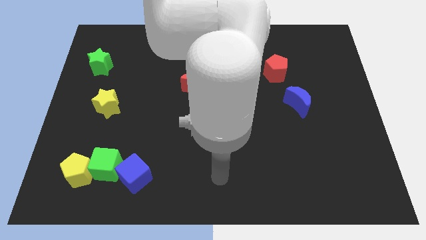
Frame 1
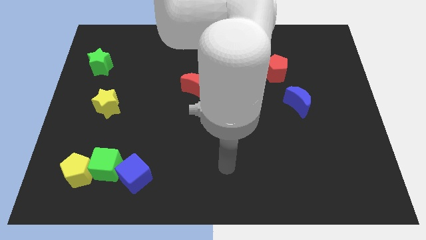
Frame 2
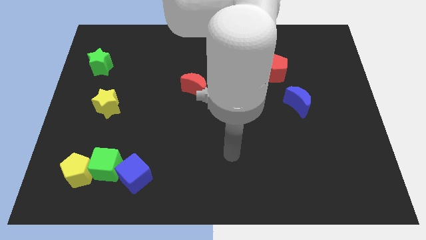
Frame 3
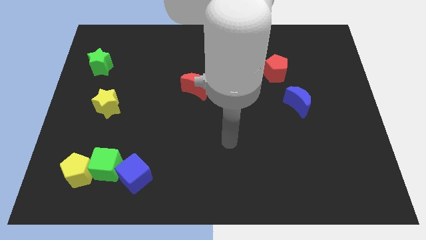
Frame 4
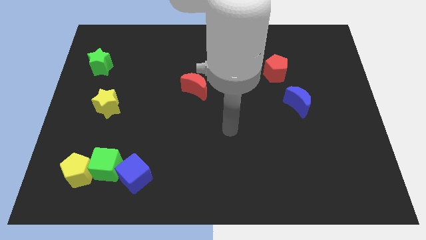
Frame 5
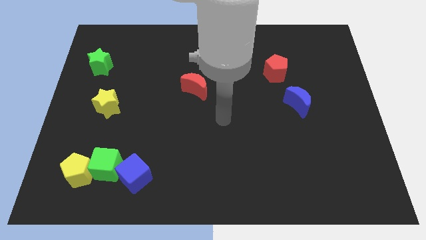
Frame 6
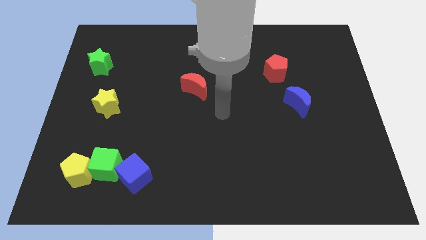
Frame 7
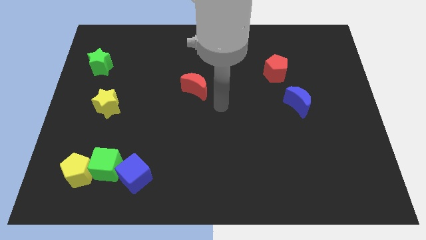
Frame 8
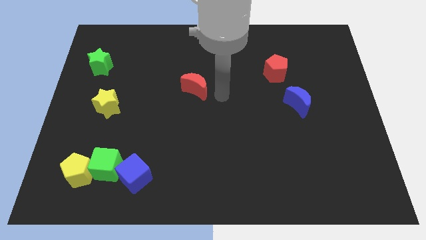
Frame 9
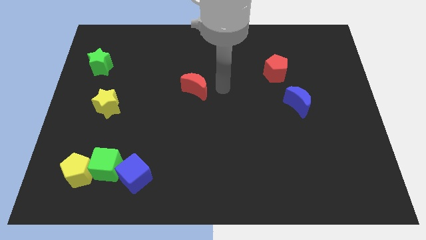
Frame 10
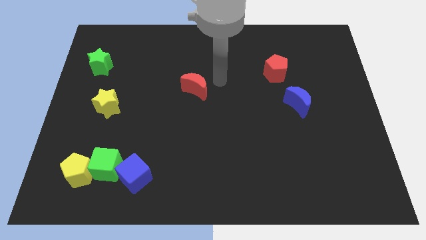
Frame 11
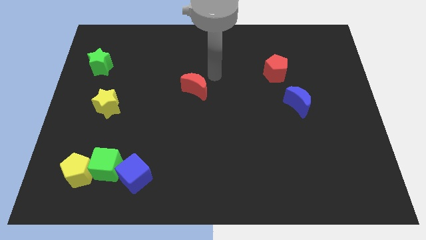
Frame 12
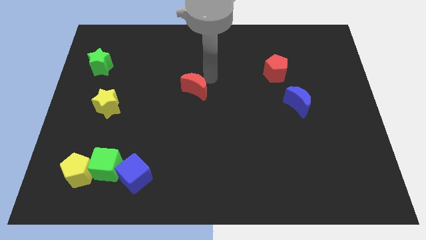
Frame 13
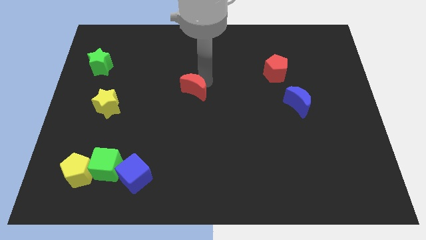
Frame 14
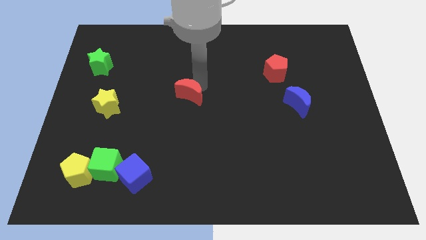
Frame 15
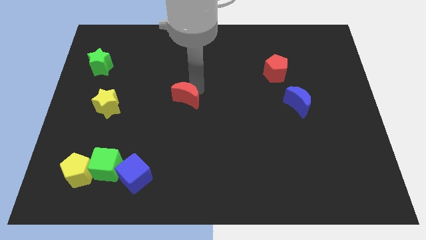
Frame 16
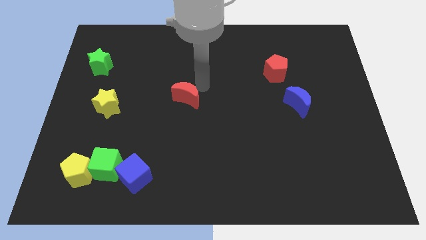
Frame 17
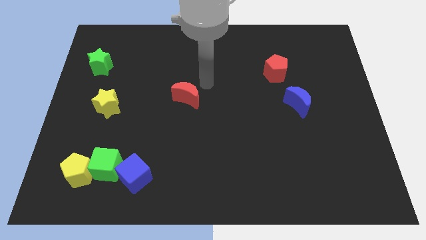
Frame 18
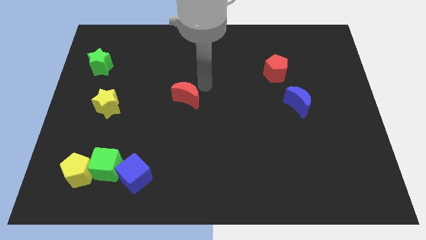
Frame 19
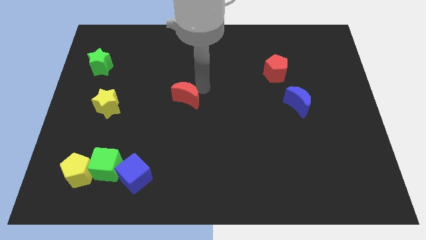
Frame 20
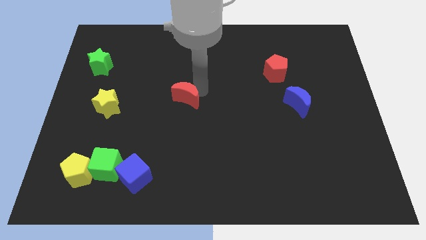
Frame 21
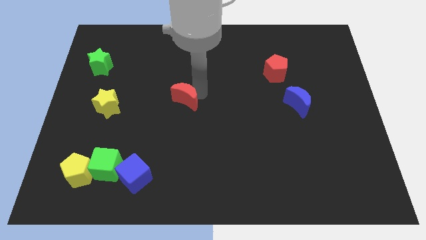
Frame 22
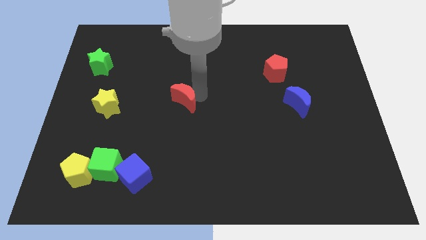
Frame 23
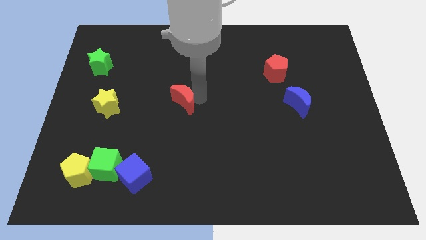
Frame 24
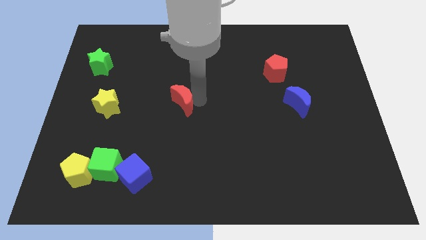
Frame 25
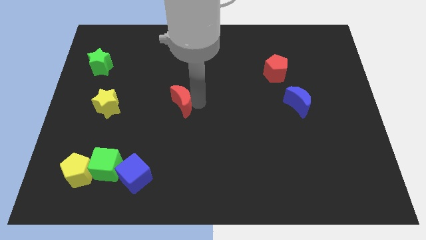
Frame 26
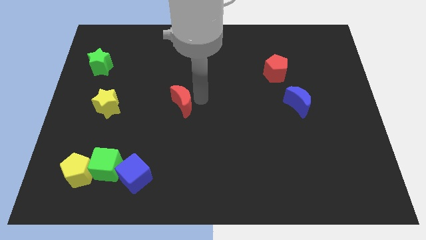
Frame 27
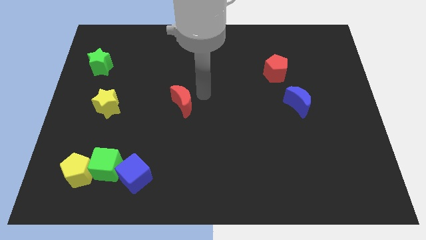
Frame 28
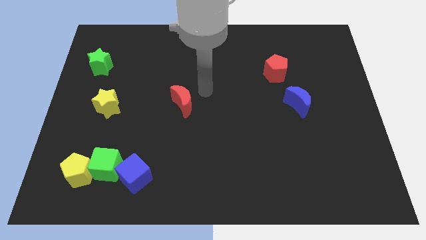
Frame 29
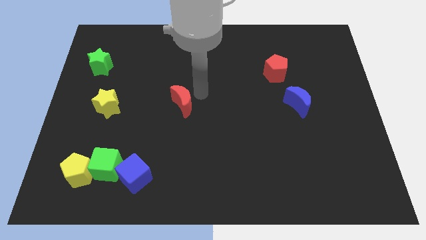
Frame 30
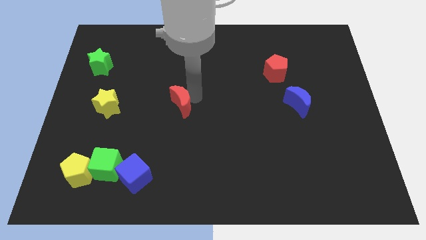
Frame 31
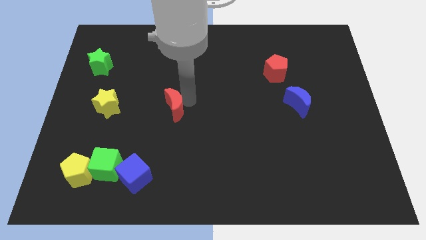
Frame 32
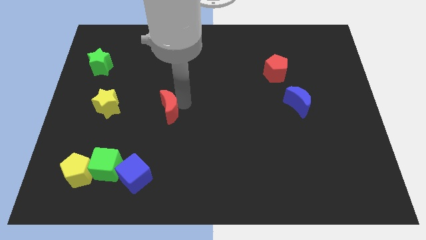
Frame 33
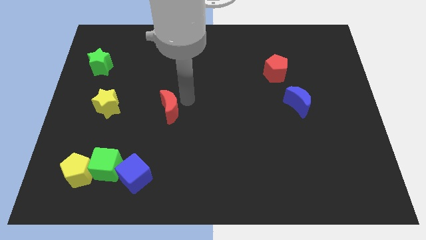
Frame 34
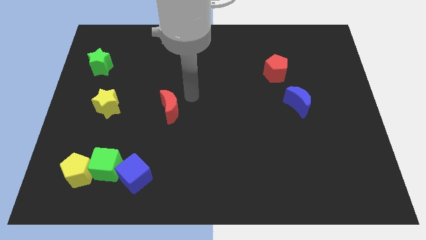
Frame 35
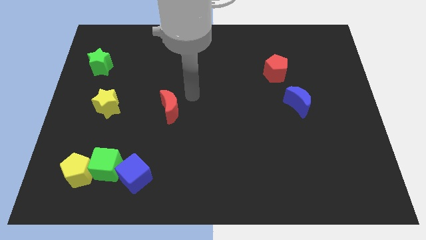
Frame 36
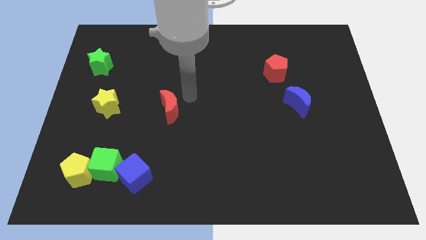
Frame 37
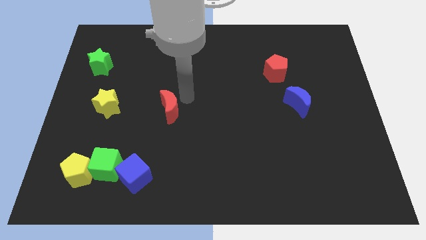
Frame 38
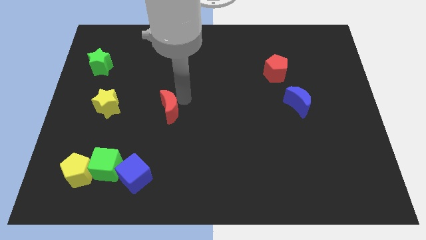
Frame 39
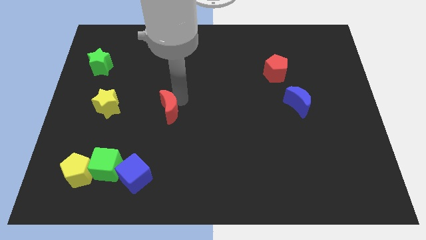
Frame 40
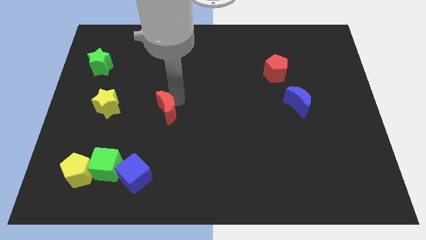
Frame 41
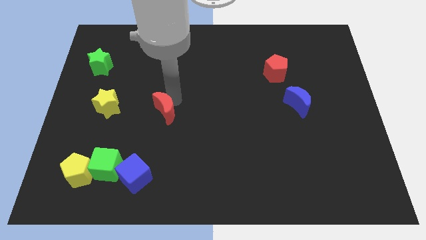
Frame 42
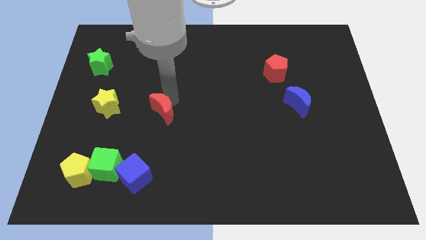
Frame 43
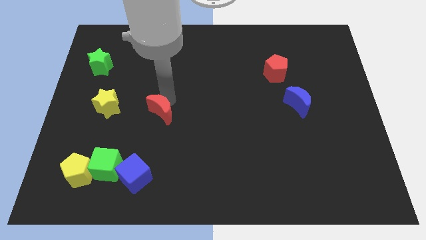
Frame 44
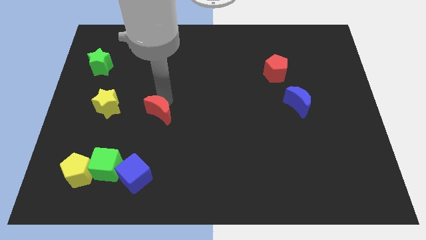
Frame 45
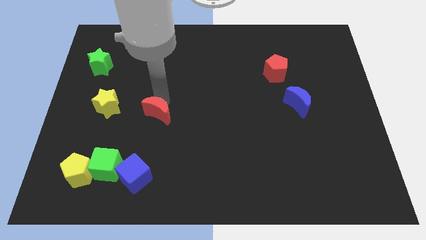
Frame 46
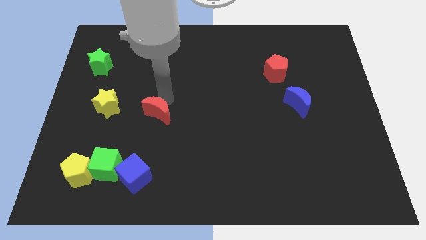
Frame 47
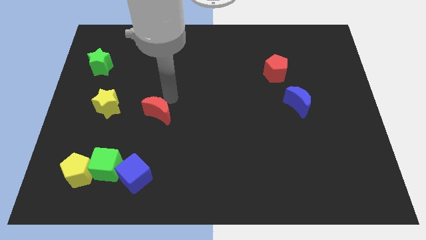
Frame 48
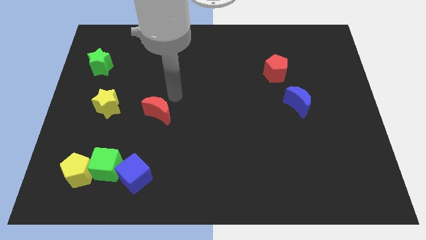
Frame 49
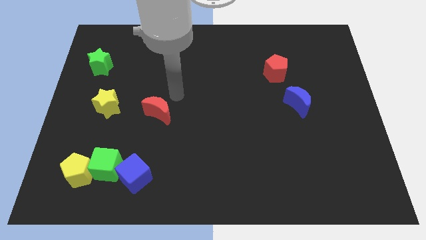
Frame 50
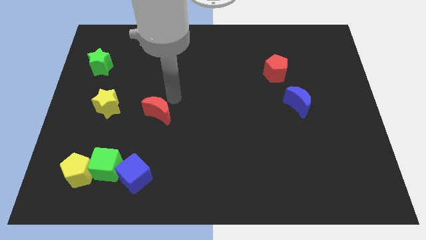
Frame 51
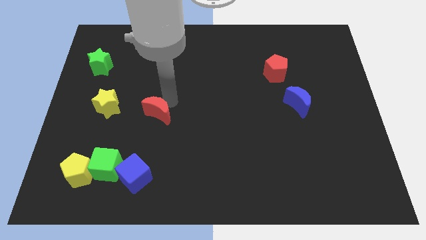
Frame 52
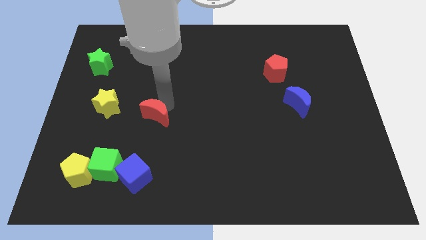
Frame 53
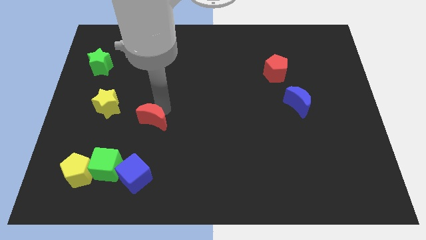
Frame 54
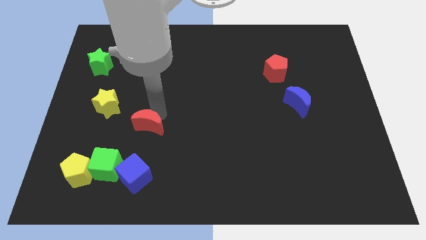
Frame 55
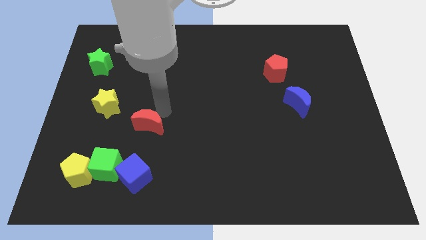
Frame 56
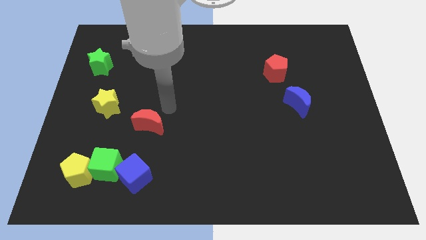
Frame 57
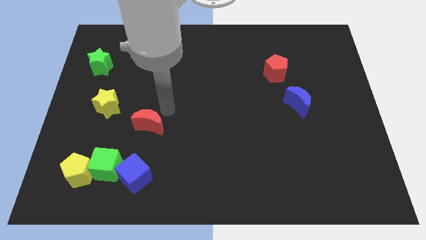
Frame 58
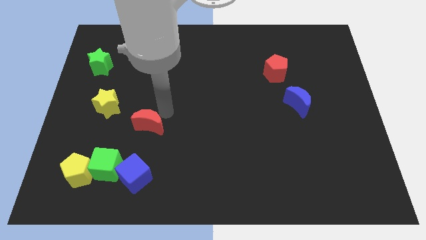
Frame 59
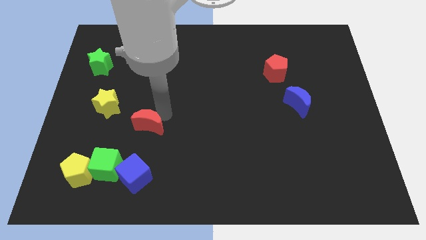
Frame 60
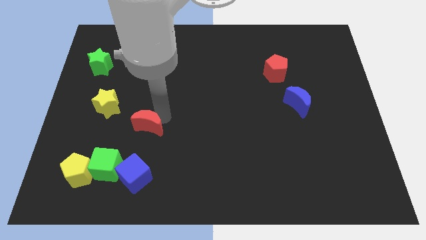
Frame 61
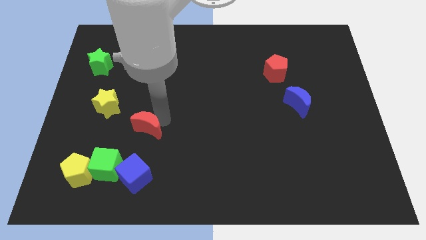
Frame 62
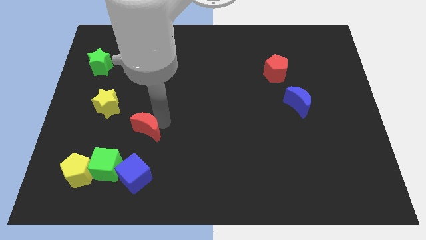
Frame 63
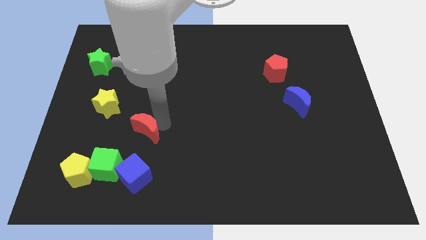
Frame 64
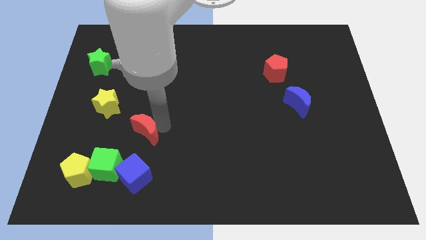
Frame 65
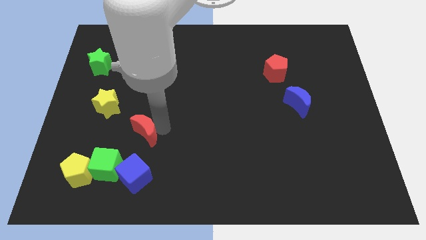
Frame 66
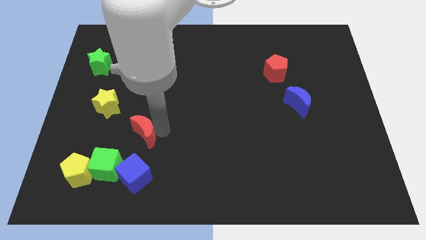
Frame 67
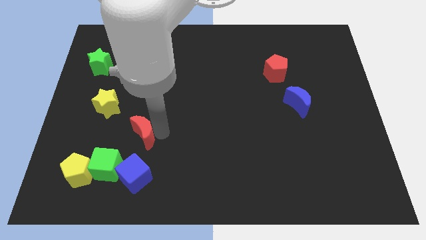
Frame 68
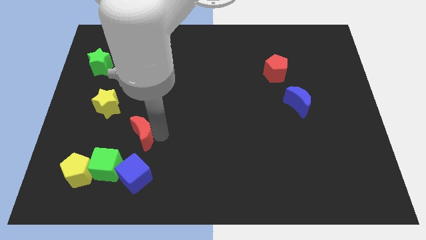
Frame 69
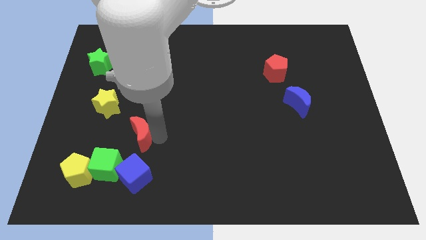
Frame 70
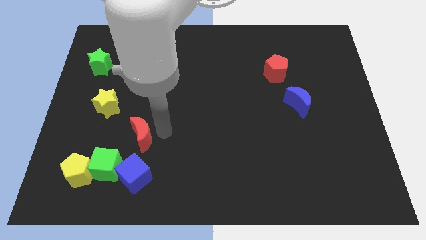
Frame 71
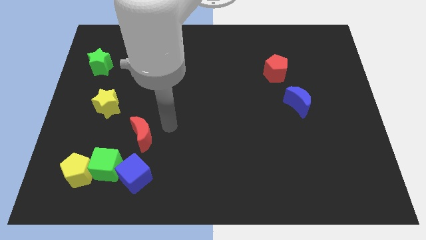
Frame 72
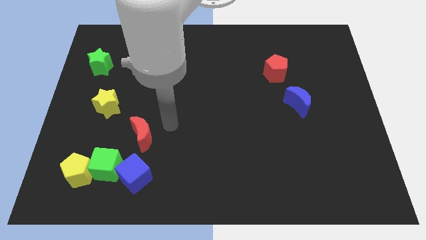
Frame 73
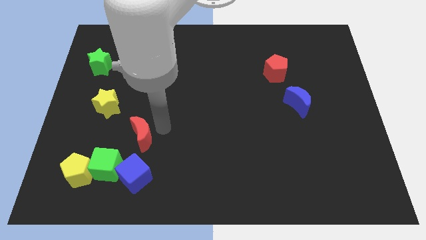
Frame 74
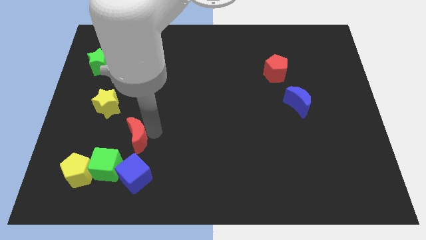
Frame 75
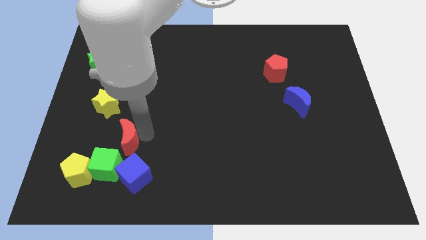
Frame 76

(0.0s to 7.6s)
put the red moon diagonally up and to the right of the yellow pentagon
